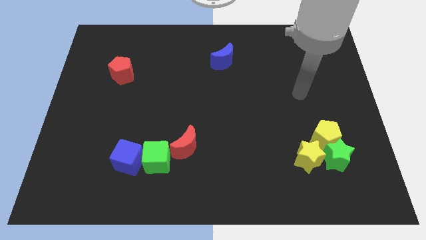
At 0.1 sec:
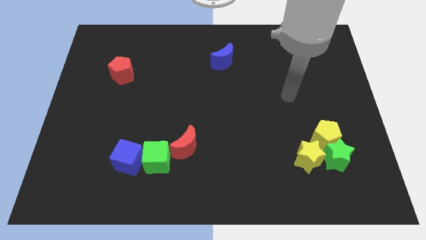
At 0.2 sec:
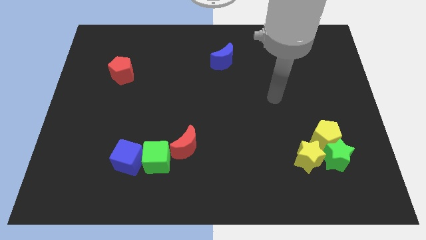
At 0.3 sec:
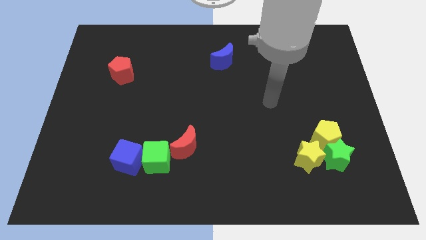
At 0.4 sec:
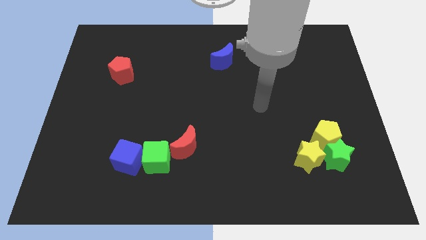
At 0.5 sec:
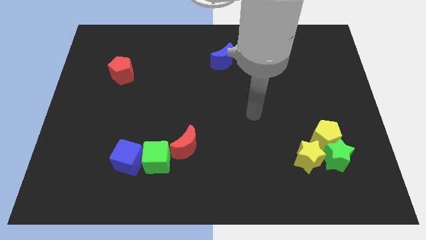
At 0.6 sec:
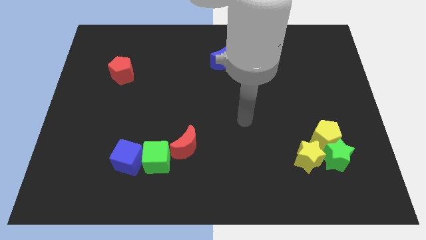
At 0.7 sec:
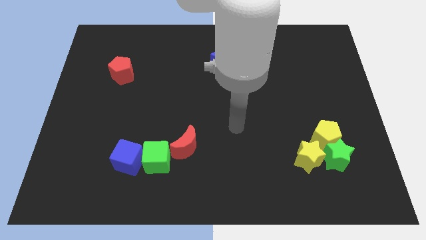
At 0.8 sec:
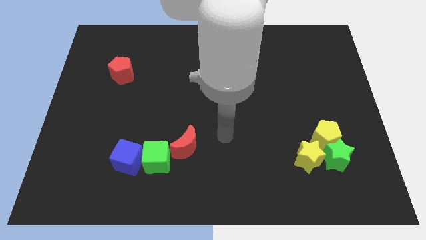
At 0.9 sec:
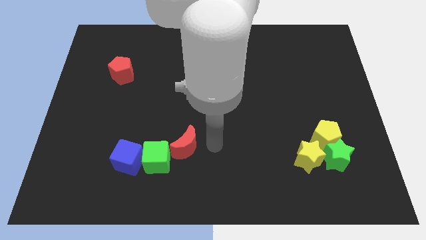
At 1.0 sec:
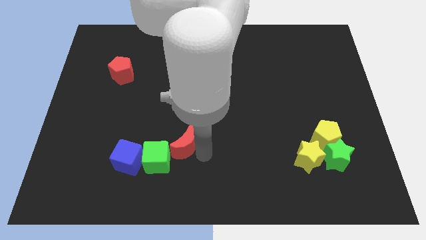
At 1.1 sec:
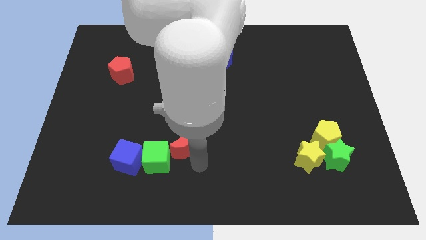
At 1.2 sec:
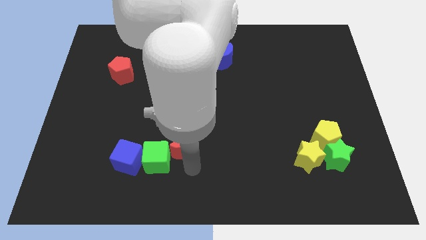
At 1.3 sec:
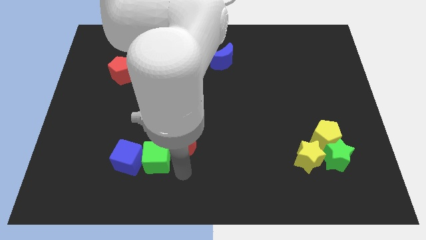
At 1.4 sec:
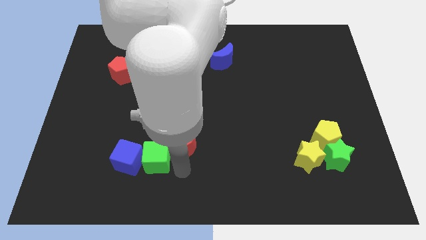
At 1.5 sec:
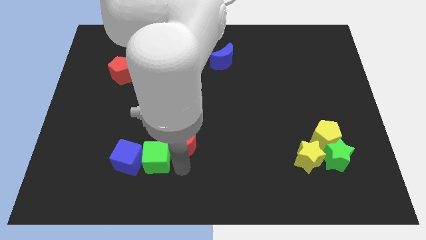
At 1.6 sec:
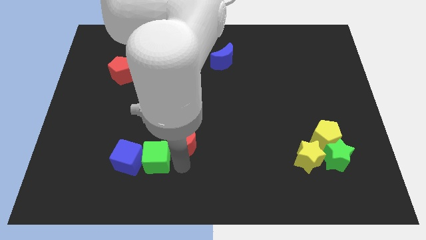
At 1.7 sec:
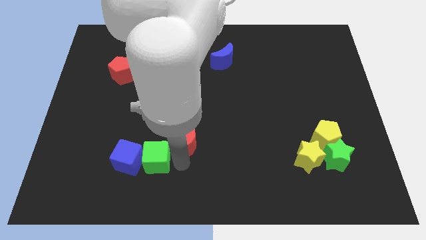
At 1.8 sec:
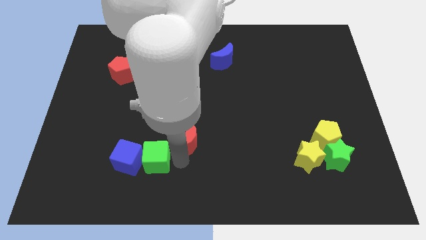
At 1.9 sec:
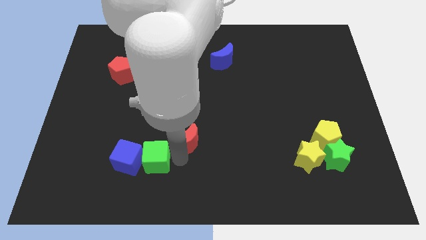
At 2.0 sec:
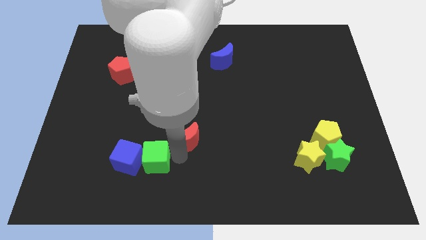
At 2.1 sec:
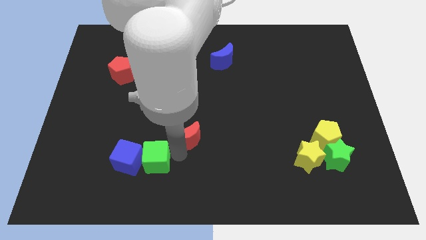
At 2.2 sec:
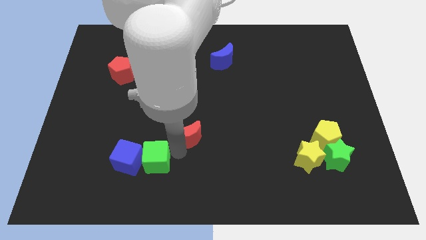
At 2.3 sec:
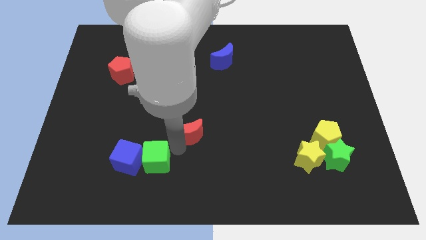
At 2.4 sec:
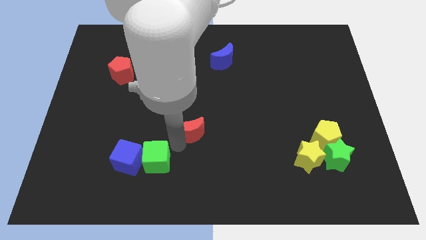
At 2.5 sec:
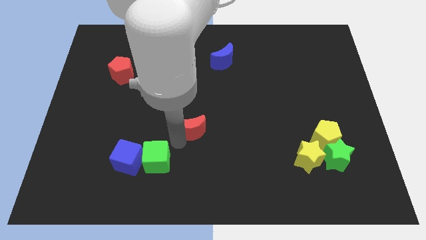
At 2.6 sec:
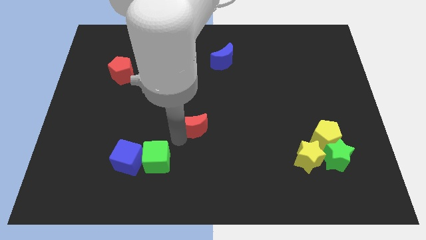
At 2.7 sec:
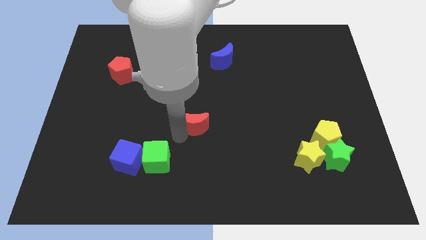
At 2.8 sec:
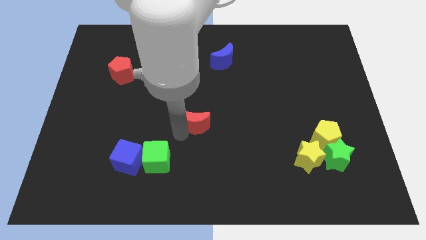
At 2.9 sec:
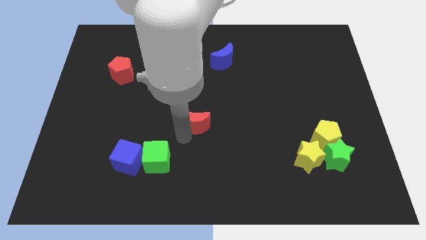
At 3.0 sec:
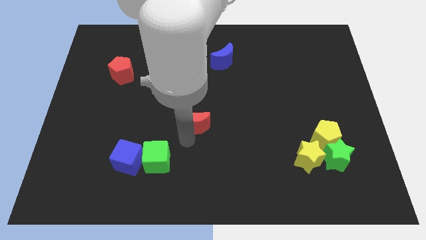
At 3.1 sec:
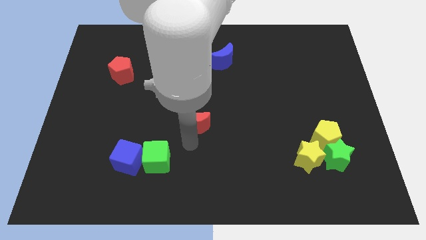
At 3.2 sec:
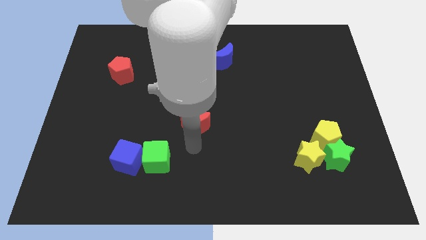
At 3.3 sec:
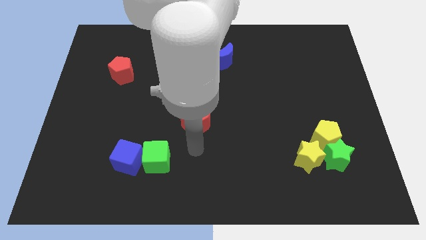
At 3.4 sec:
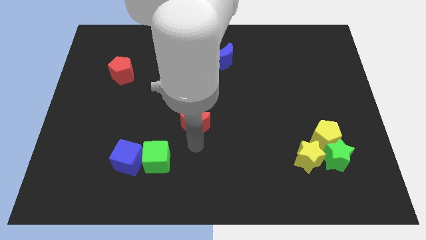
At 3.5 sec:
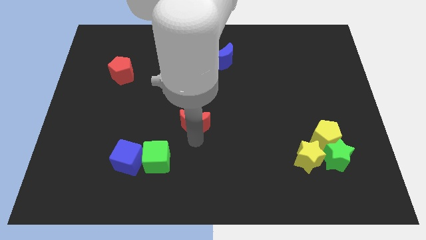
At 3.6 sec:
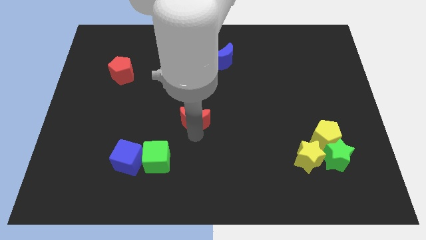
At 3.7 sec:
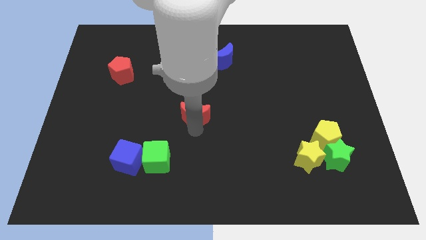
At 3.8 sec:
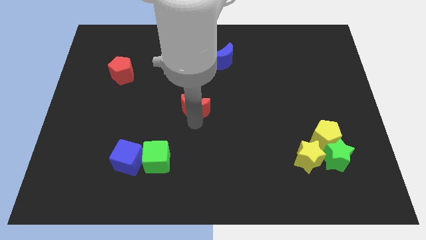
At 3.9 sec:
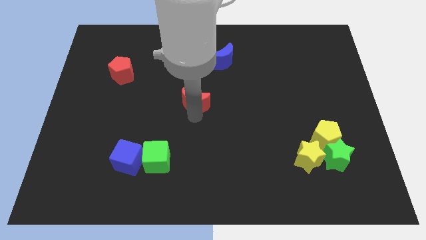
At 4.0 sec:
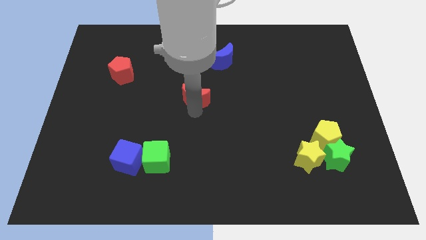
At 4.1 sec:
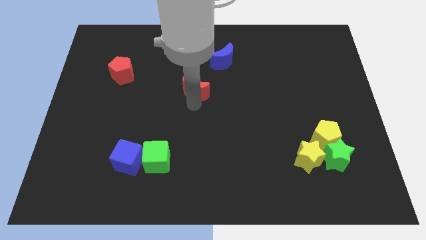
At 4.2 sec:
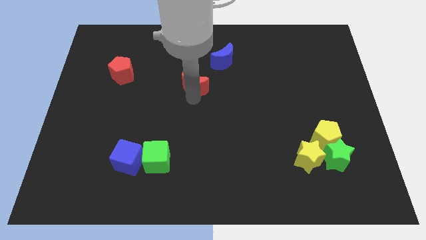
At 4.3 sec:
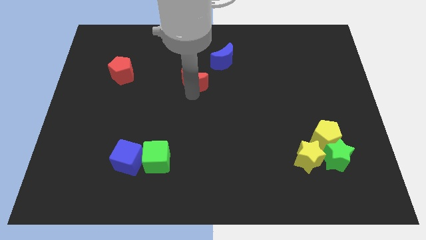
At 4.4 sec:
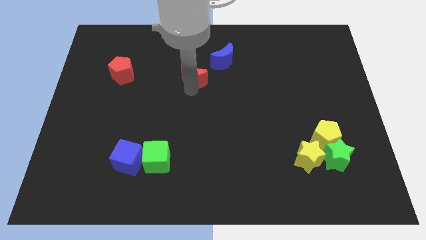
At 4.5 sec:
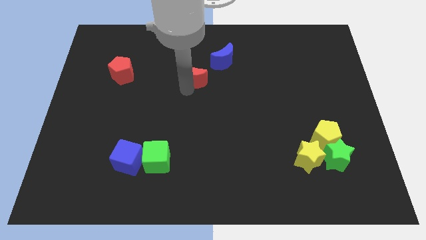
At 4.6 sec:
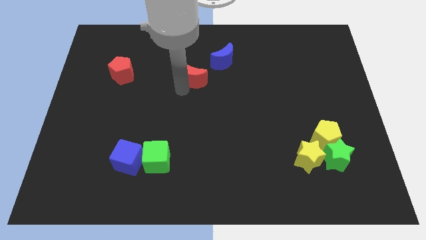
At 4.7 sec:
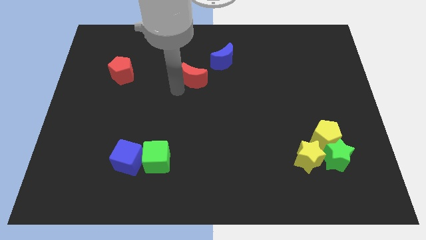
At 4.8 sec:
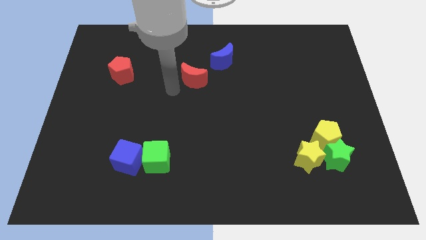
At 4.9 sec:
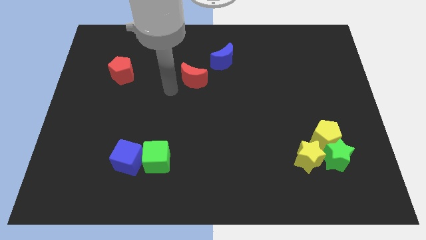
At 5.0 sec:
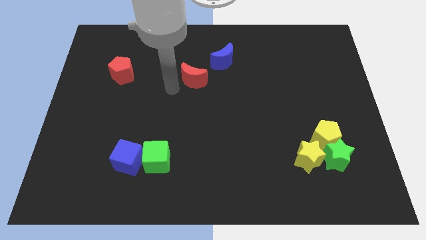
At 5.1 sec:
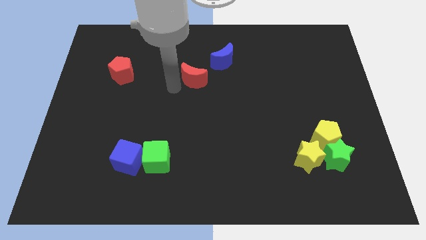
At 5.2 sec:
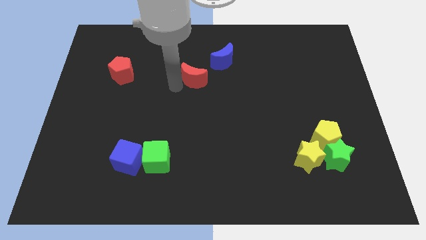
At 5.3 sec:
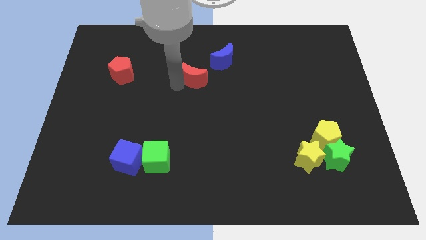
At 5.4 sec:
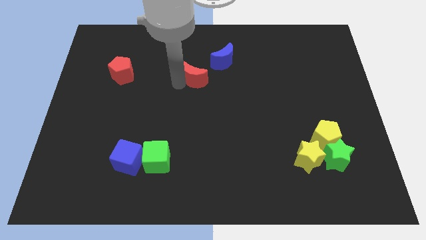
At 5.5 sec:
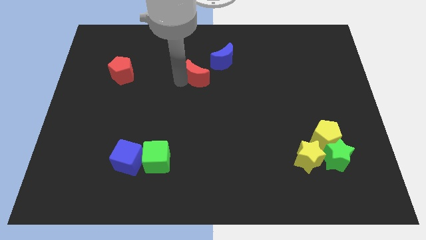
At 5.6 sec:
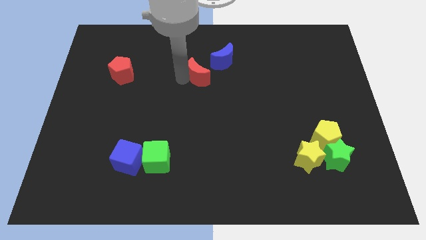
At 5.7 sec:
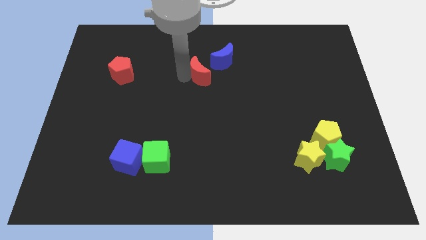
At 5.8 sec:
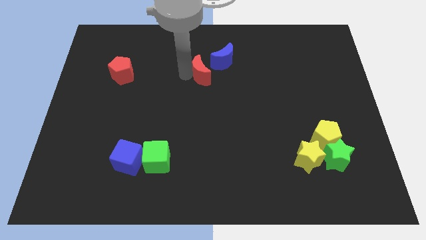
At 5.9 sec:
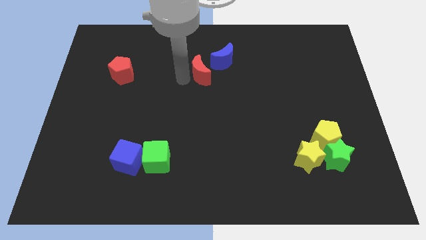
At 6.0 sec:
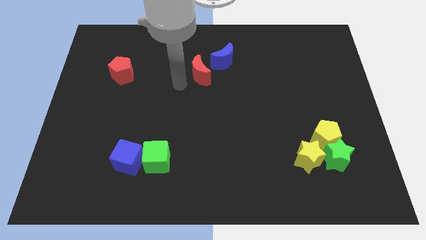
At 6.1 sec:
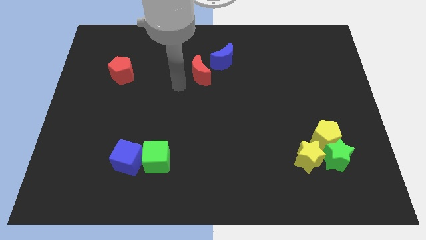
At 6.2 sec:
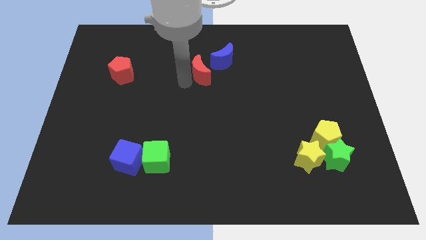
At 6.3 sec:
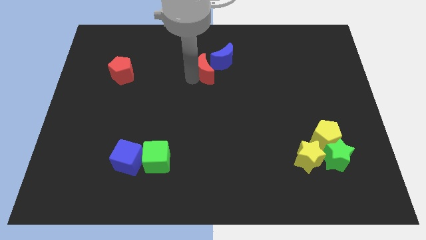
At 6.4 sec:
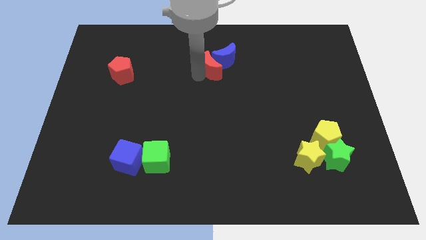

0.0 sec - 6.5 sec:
move the red moon to the blue moon

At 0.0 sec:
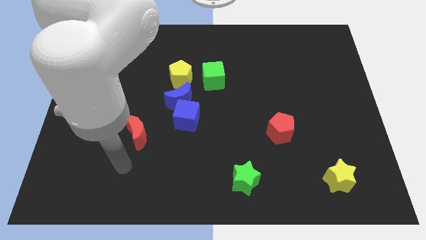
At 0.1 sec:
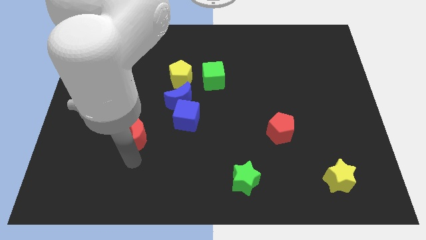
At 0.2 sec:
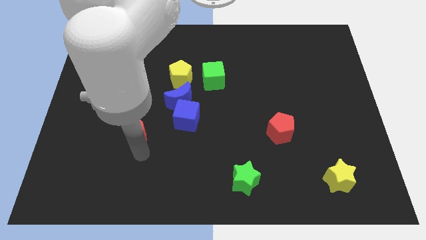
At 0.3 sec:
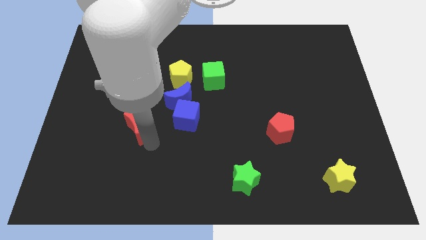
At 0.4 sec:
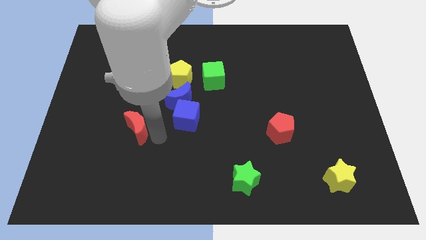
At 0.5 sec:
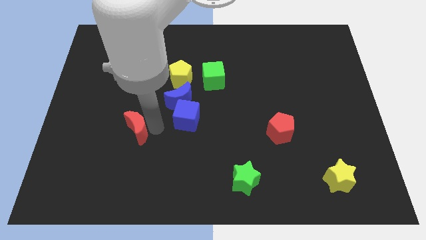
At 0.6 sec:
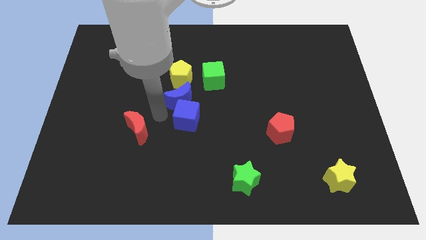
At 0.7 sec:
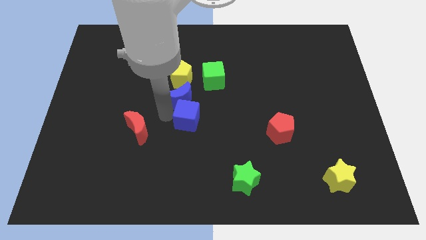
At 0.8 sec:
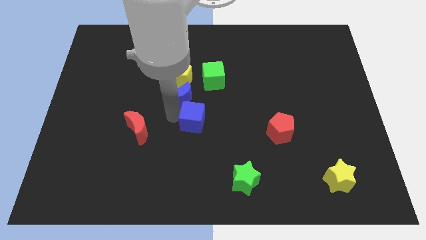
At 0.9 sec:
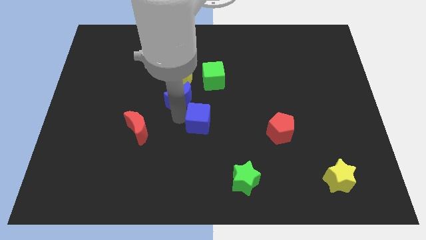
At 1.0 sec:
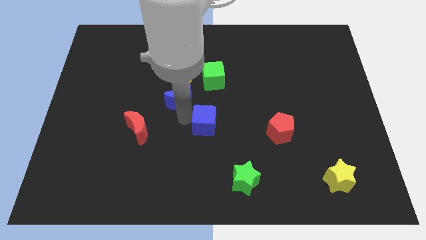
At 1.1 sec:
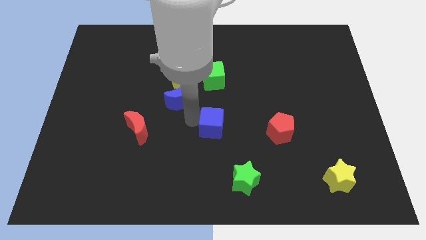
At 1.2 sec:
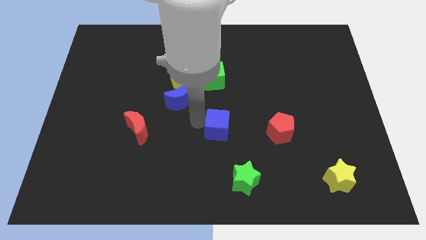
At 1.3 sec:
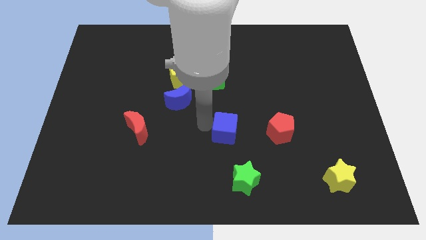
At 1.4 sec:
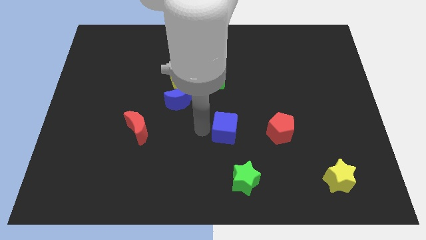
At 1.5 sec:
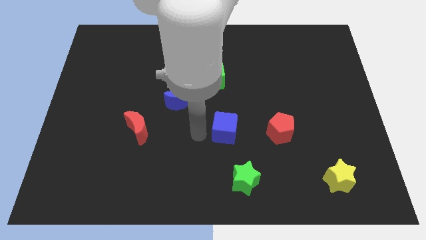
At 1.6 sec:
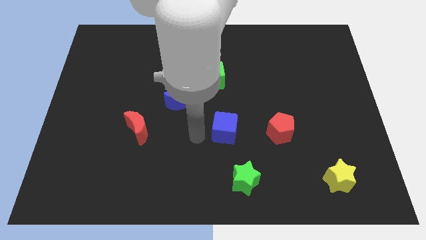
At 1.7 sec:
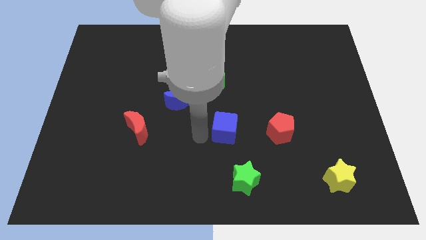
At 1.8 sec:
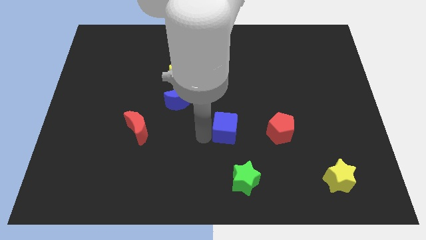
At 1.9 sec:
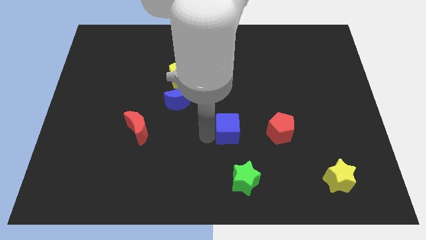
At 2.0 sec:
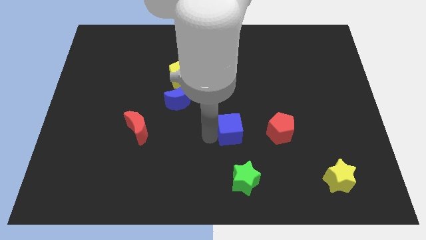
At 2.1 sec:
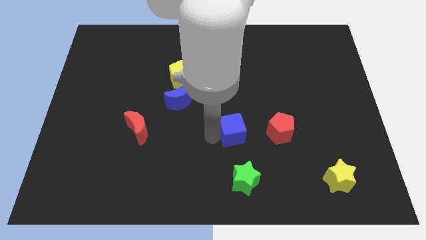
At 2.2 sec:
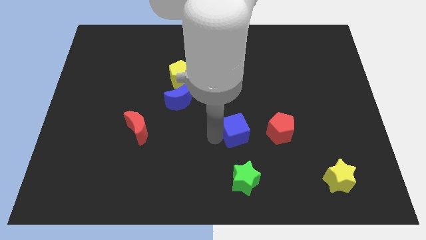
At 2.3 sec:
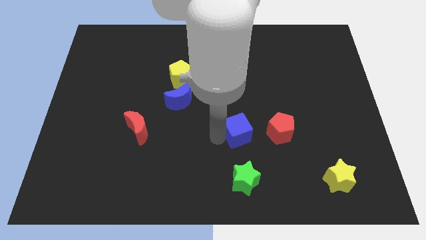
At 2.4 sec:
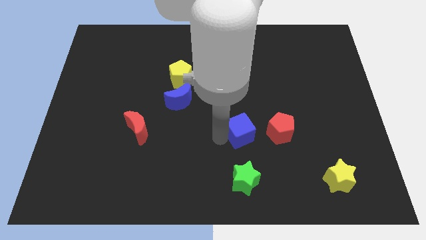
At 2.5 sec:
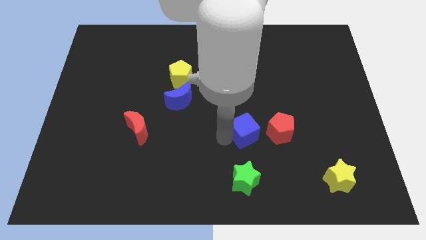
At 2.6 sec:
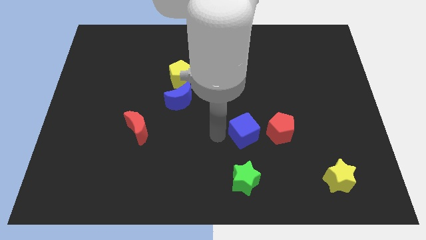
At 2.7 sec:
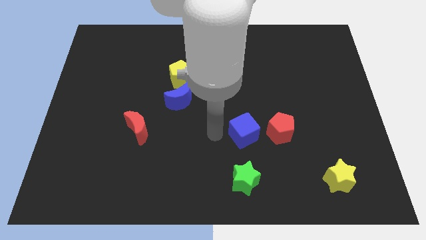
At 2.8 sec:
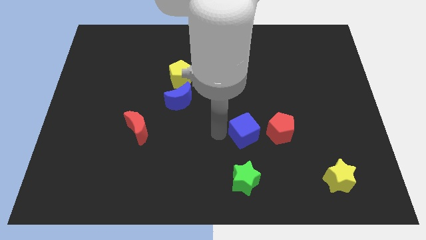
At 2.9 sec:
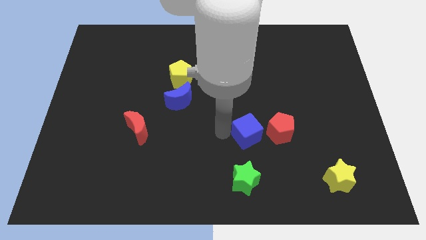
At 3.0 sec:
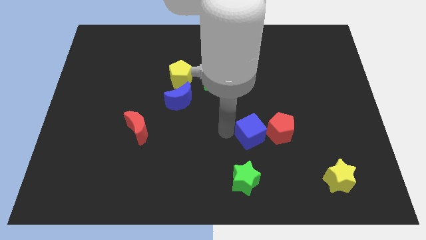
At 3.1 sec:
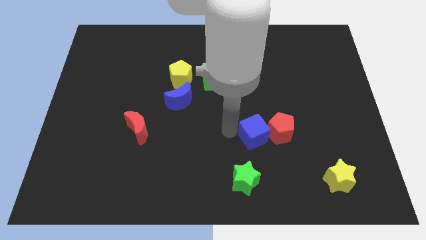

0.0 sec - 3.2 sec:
slide the blue cube next to the red pentagon
